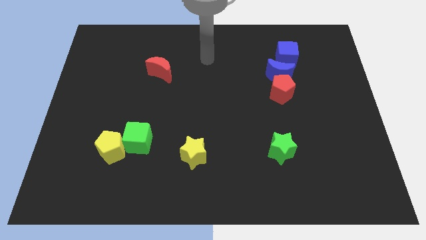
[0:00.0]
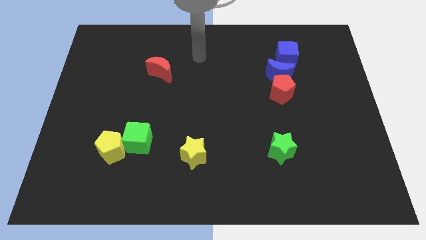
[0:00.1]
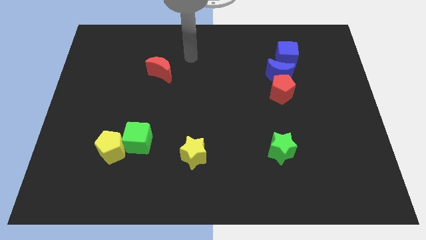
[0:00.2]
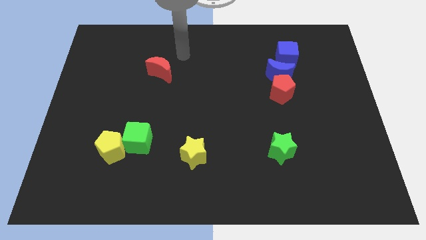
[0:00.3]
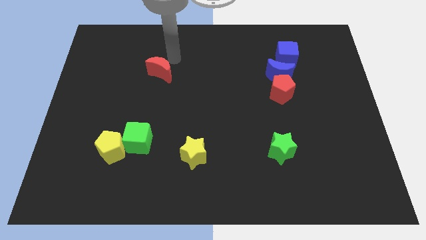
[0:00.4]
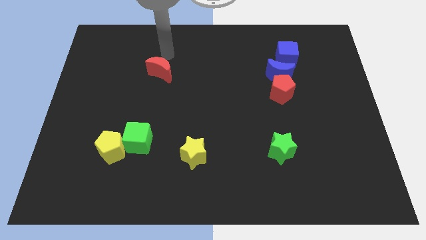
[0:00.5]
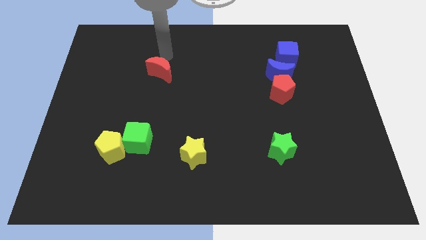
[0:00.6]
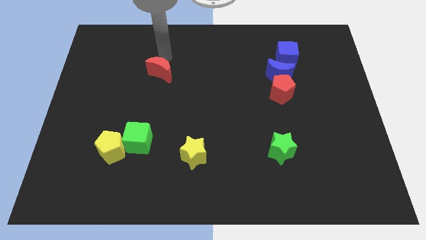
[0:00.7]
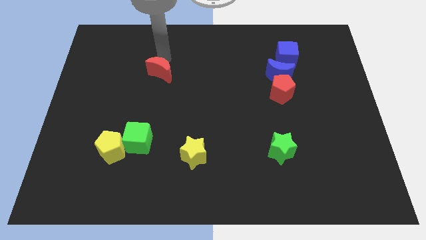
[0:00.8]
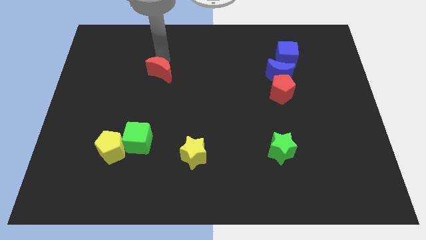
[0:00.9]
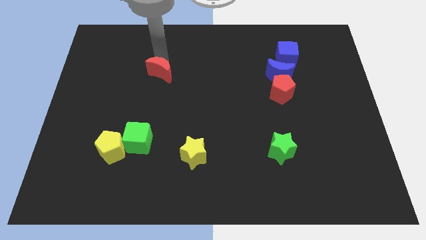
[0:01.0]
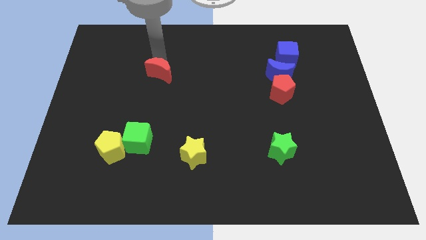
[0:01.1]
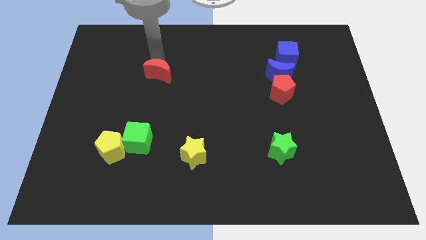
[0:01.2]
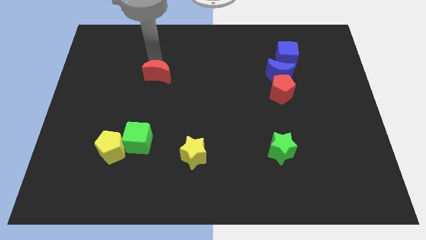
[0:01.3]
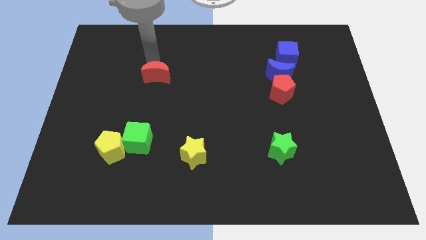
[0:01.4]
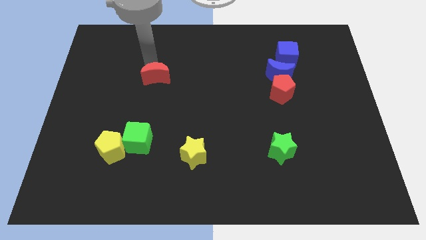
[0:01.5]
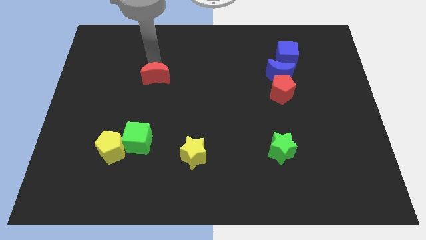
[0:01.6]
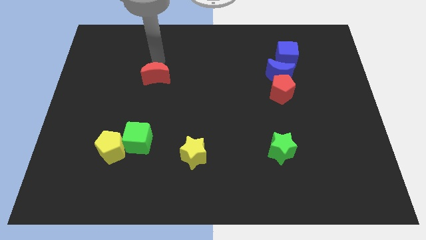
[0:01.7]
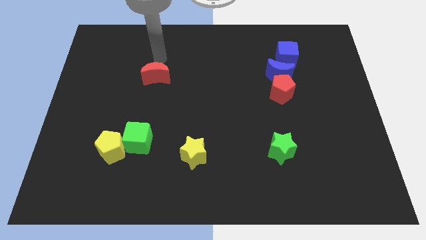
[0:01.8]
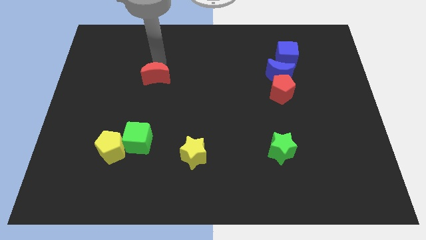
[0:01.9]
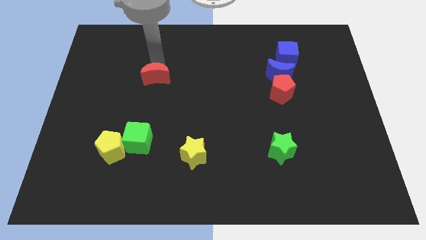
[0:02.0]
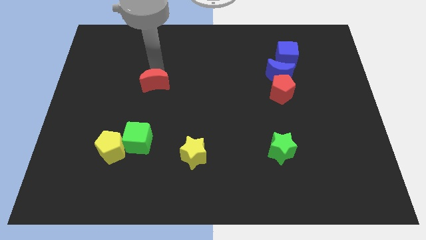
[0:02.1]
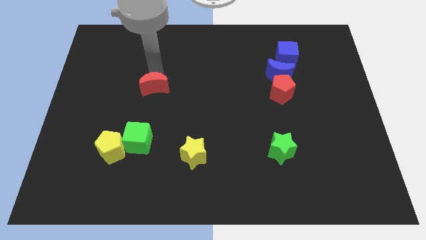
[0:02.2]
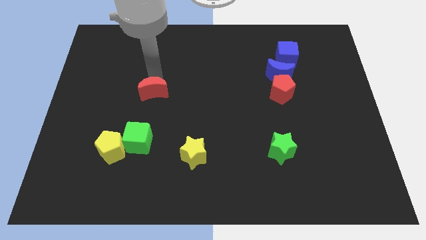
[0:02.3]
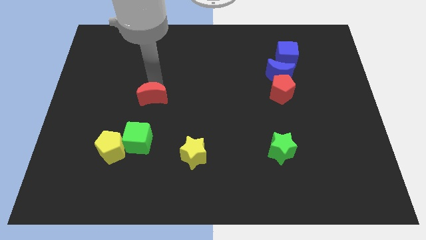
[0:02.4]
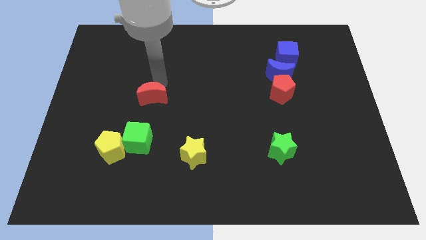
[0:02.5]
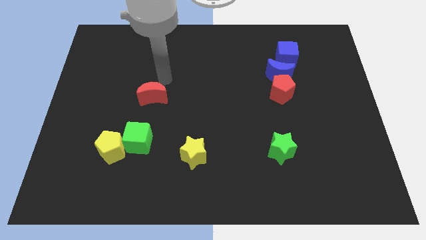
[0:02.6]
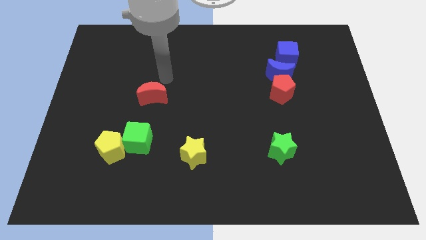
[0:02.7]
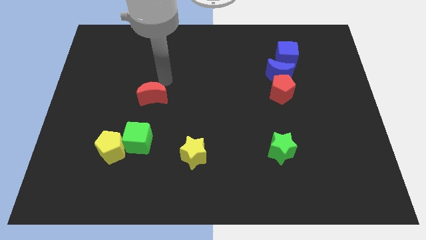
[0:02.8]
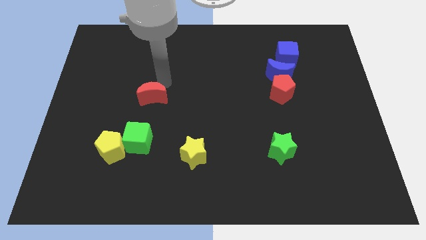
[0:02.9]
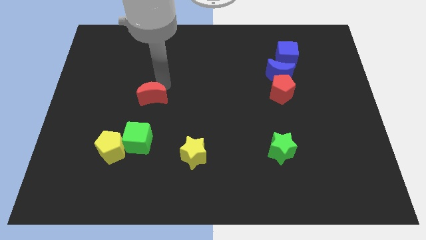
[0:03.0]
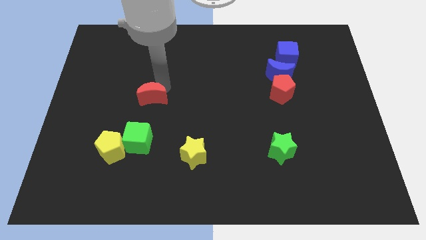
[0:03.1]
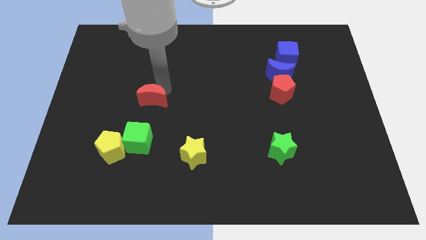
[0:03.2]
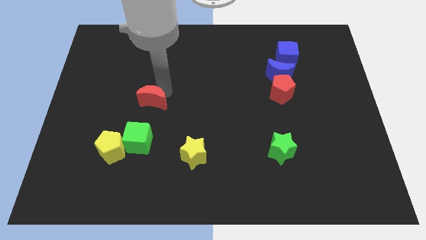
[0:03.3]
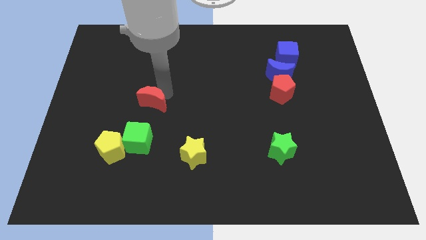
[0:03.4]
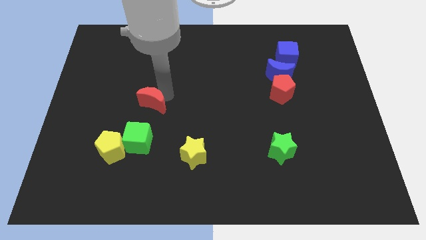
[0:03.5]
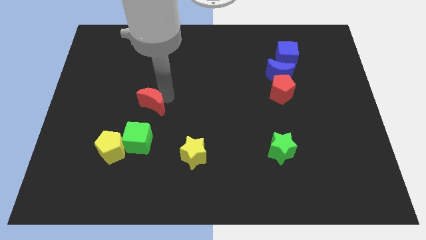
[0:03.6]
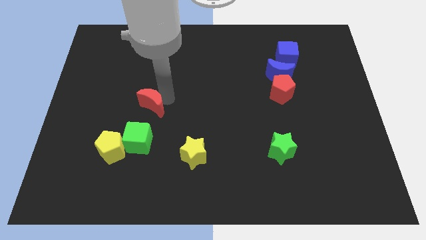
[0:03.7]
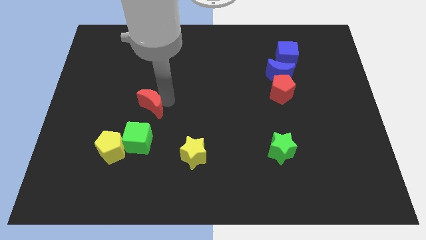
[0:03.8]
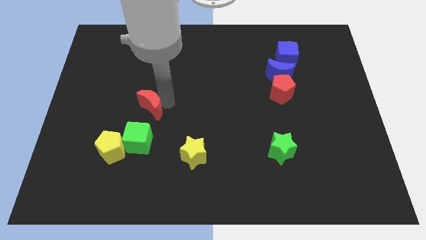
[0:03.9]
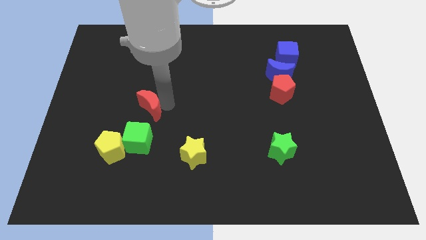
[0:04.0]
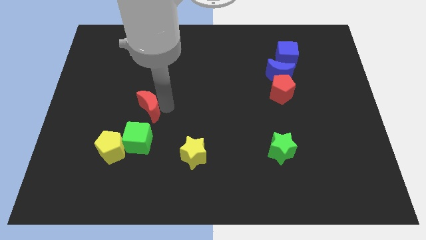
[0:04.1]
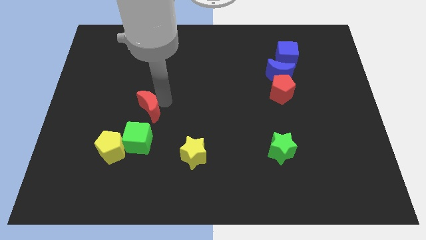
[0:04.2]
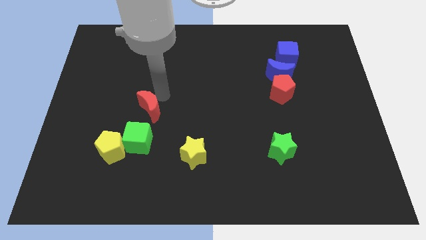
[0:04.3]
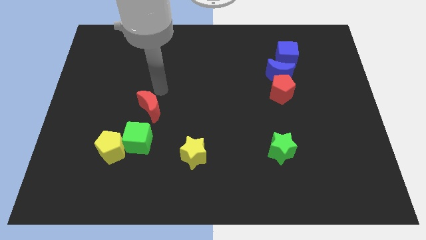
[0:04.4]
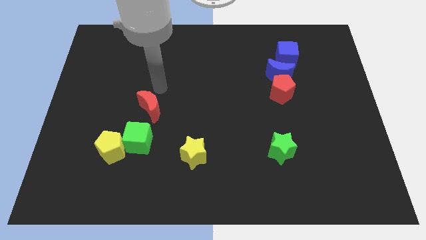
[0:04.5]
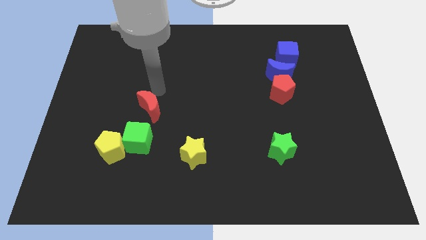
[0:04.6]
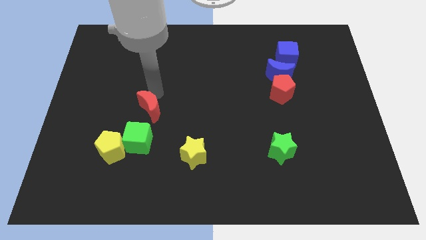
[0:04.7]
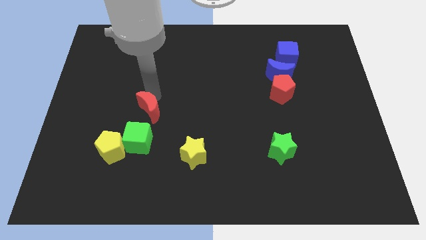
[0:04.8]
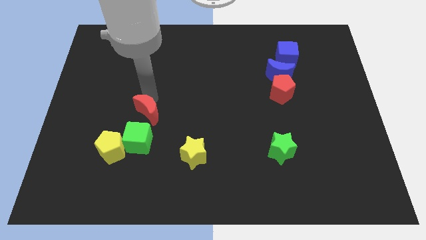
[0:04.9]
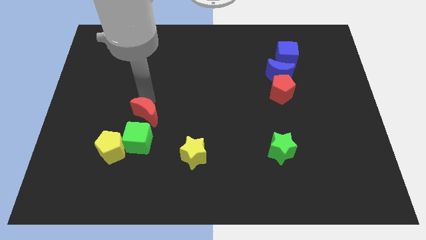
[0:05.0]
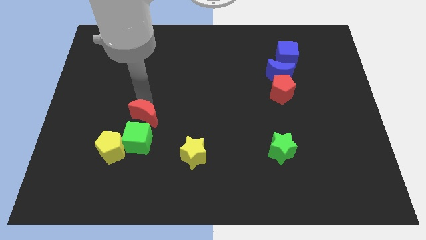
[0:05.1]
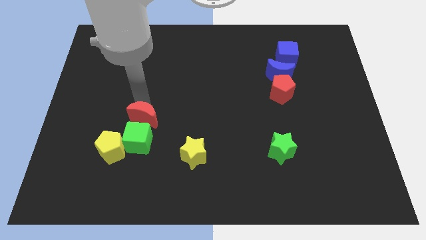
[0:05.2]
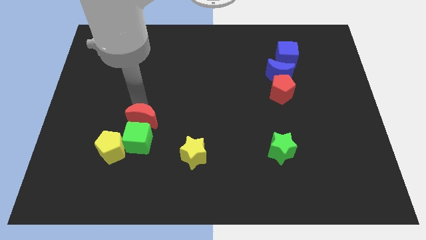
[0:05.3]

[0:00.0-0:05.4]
slide the red moon next to the green cube
